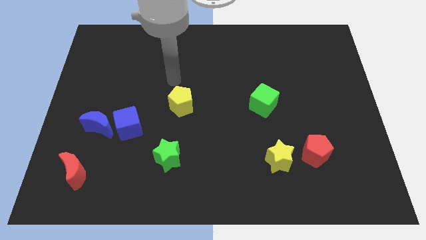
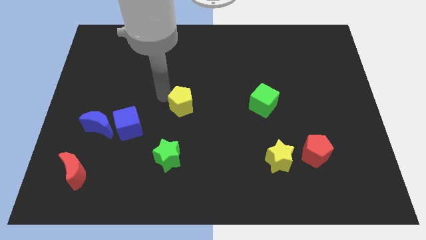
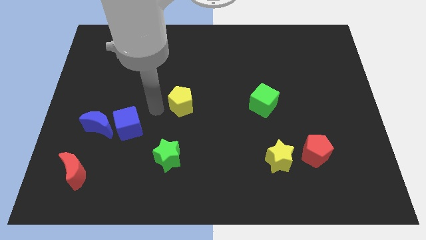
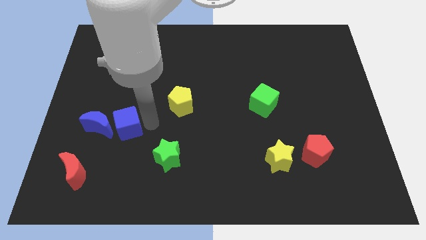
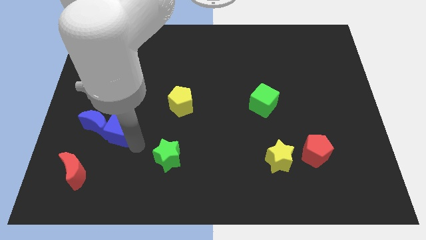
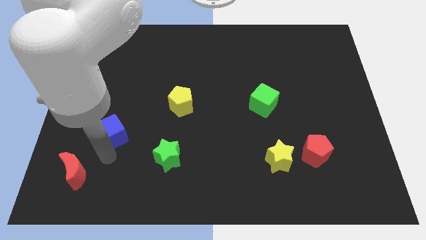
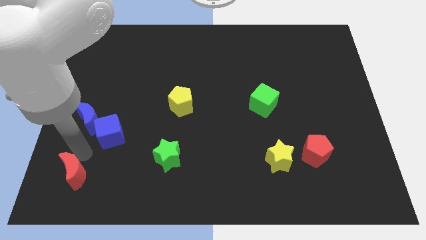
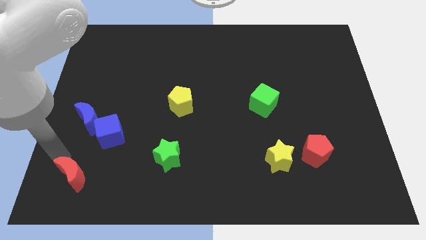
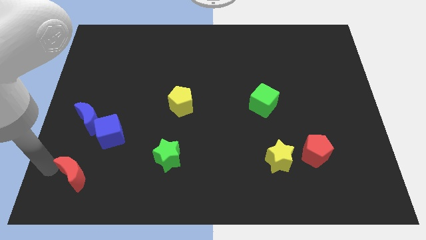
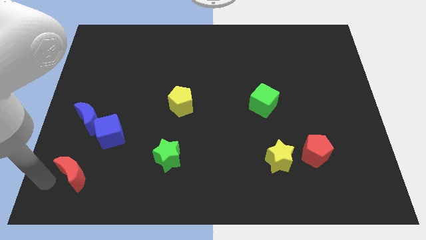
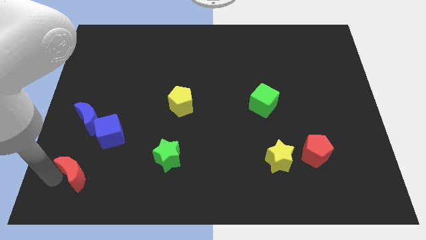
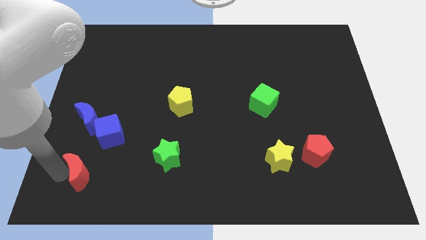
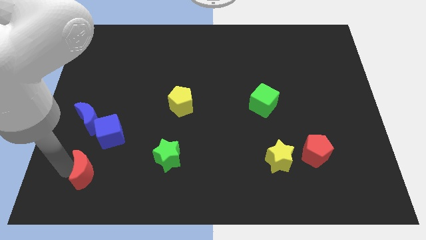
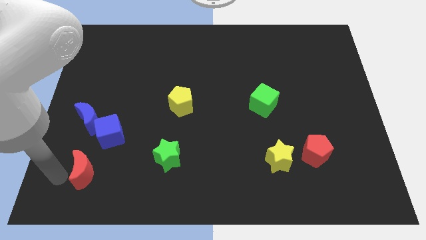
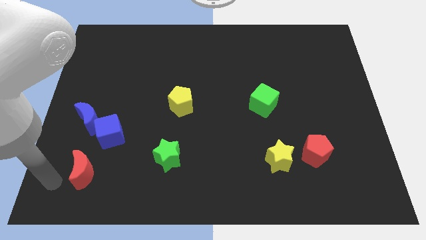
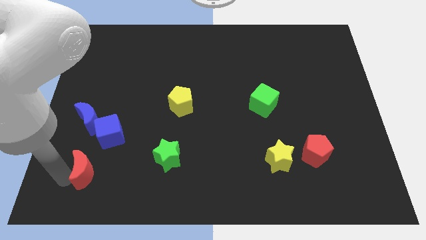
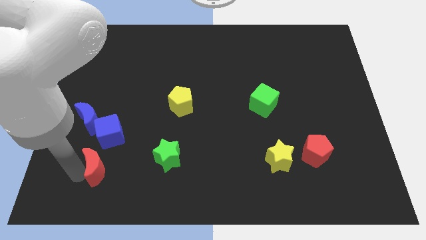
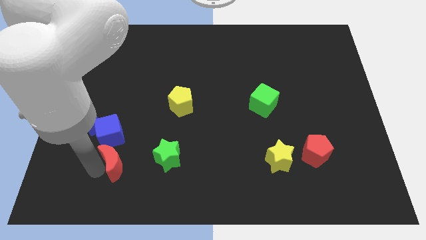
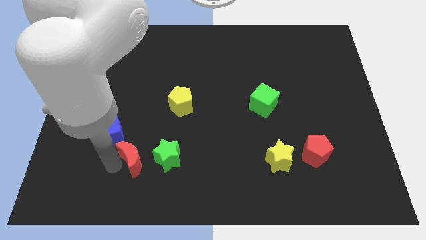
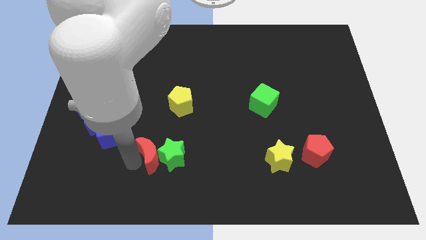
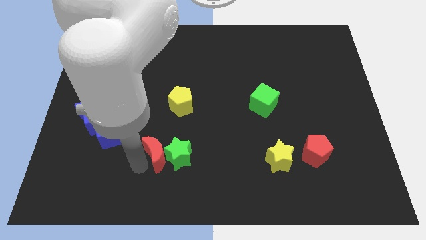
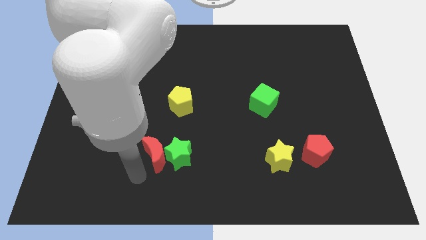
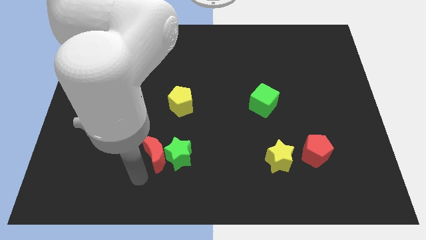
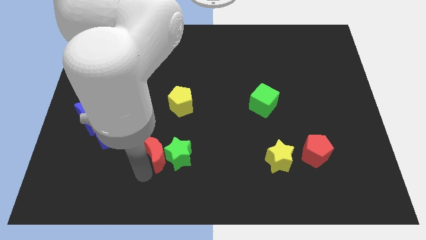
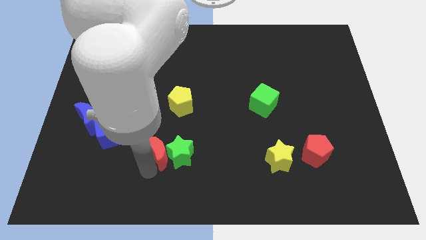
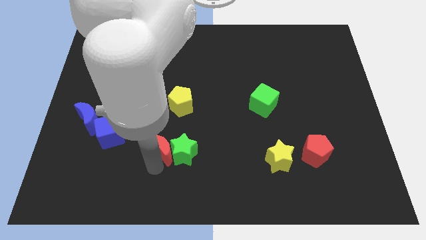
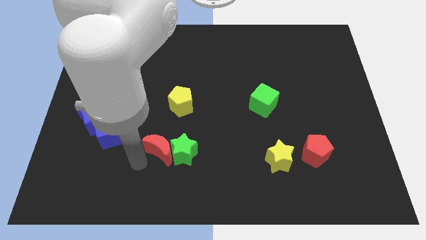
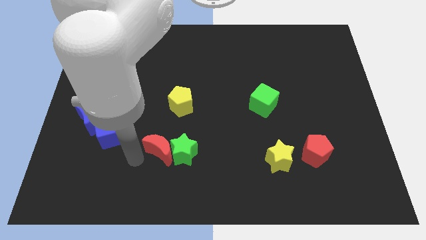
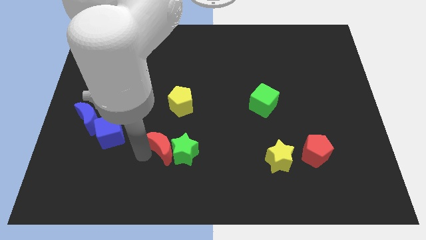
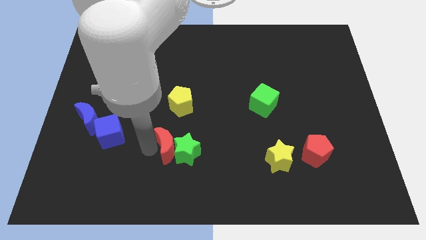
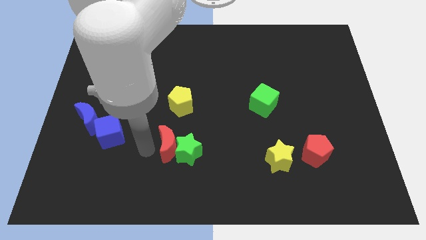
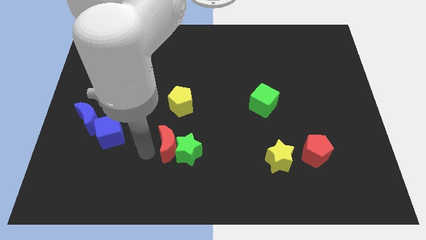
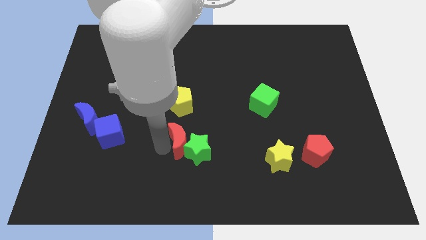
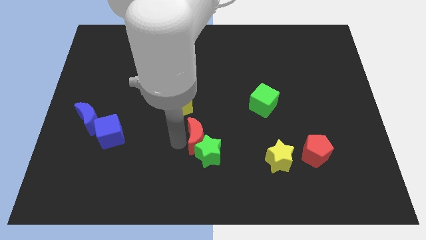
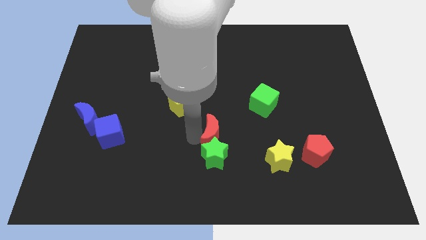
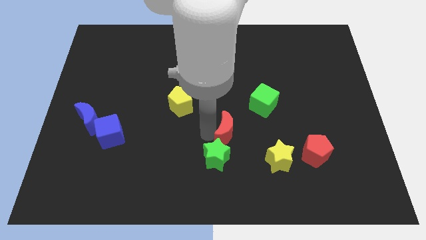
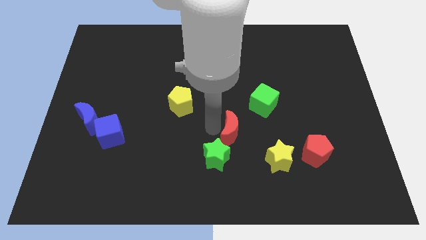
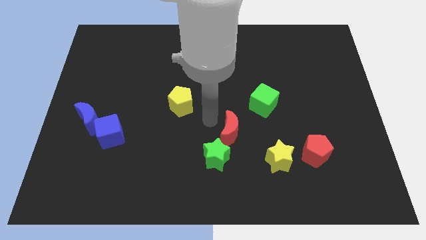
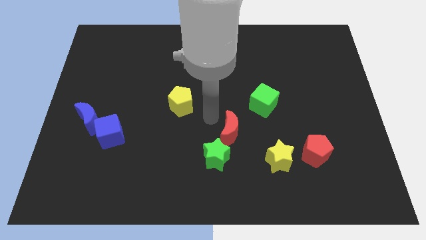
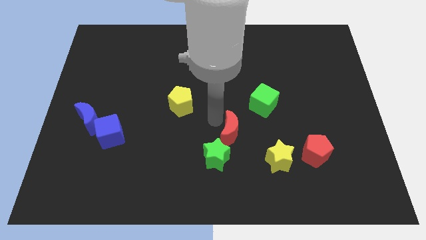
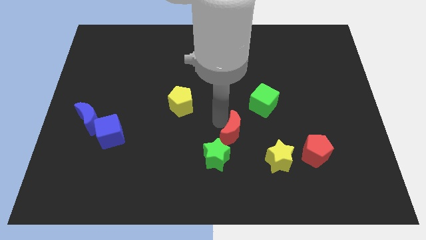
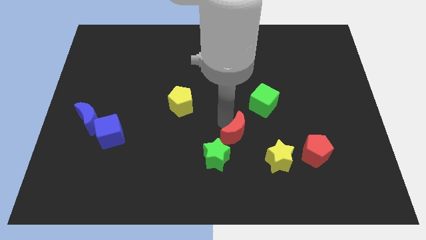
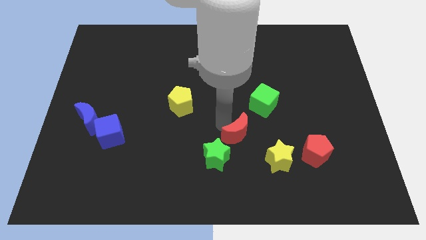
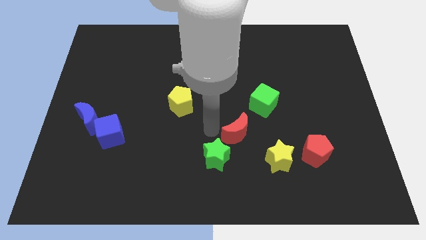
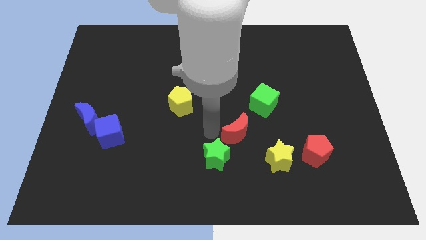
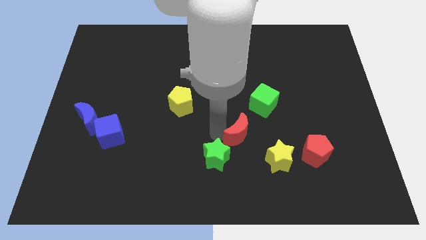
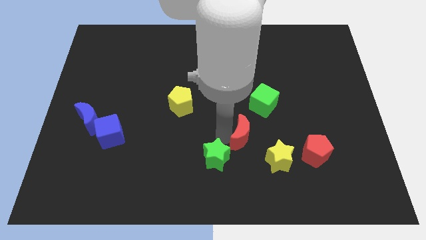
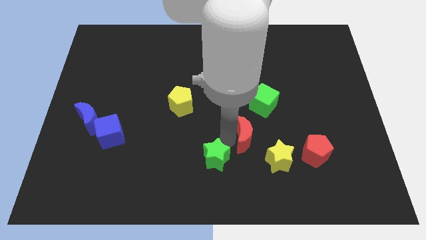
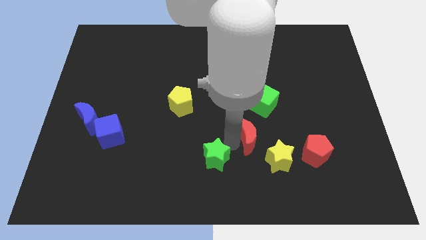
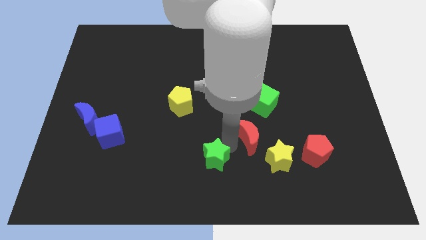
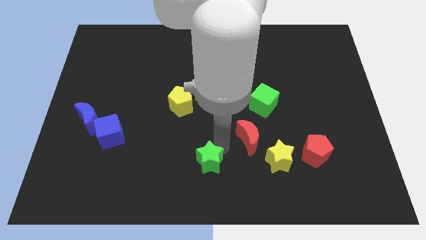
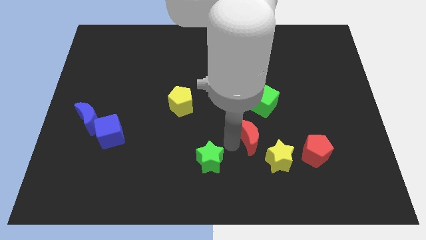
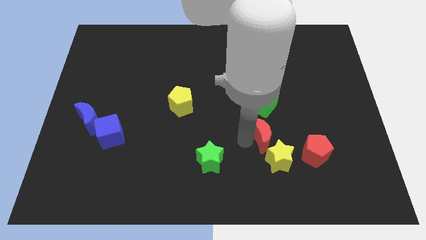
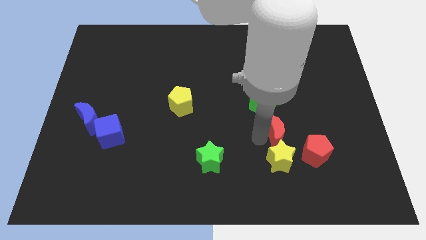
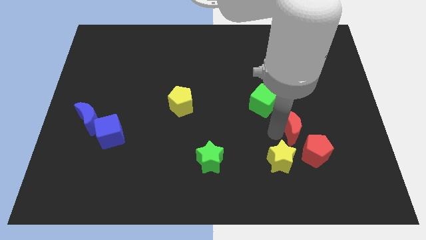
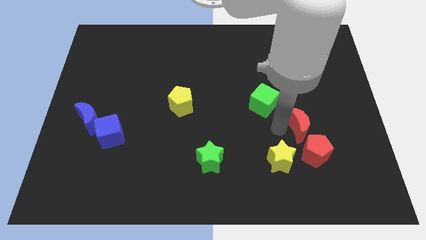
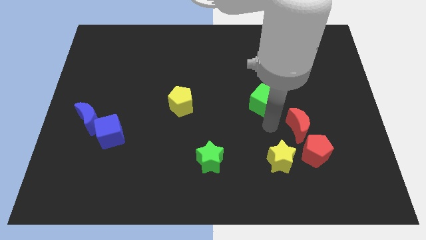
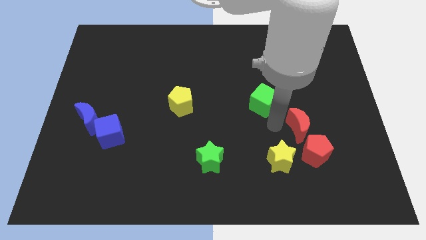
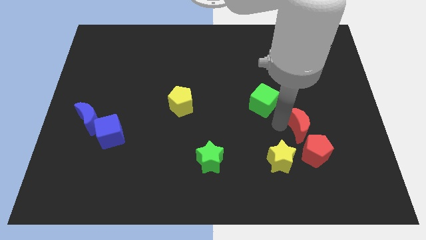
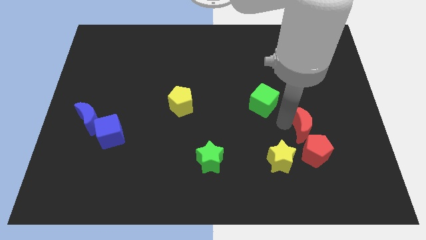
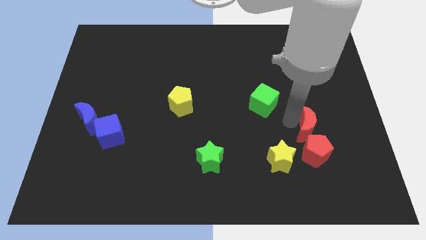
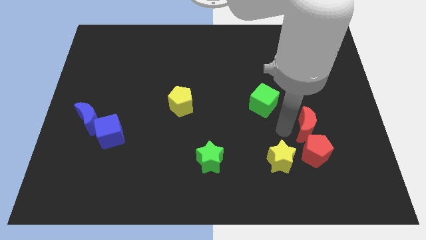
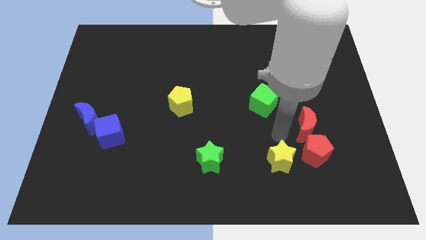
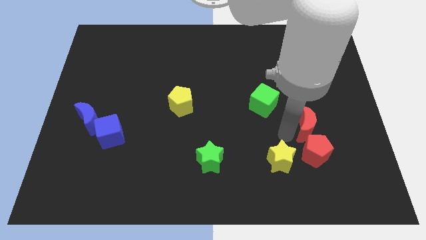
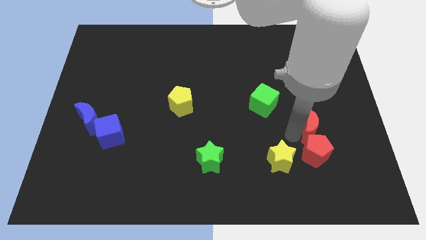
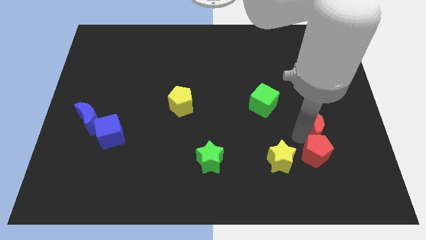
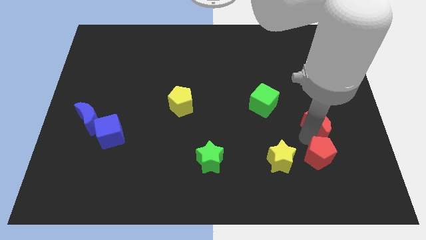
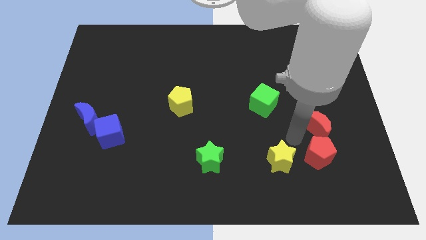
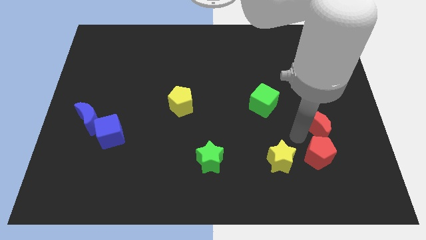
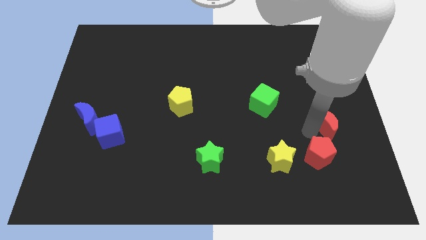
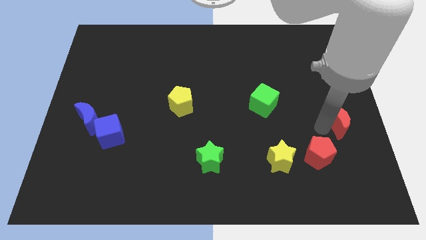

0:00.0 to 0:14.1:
slide the red moon to the right side
